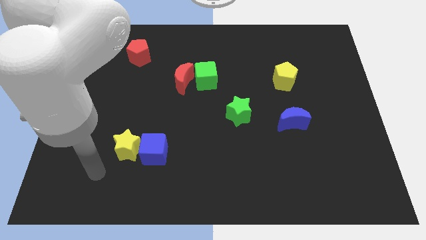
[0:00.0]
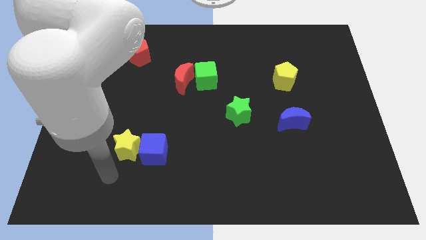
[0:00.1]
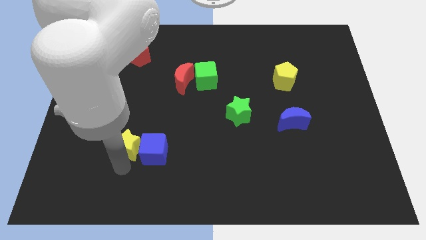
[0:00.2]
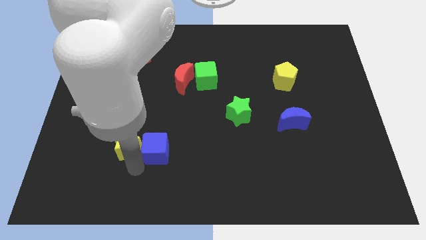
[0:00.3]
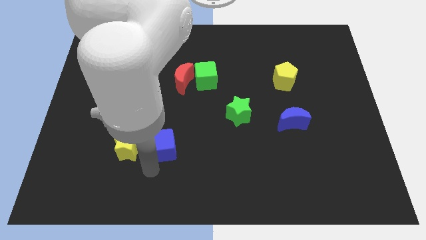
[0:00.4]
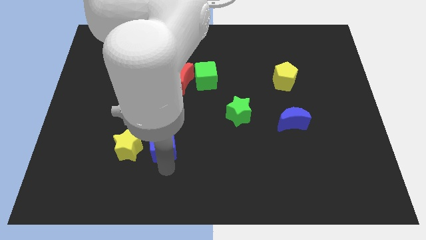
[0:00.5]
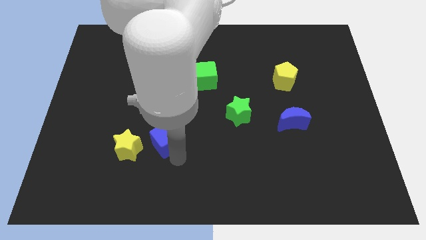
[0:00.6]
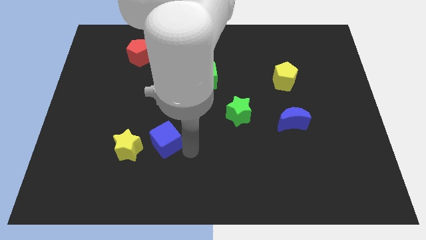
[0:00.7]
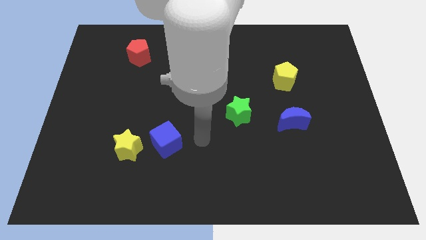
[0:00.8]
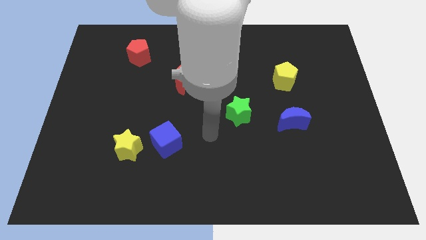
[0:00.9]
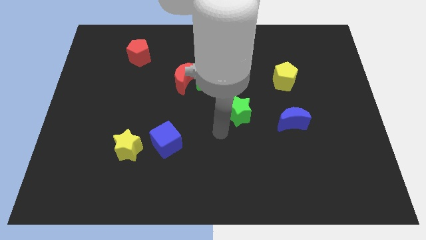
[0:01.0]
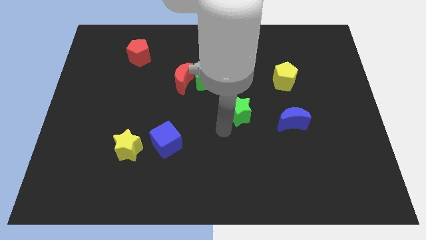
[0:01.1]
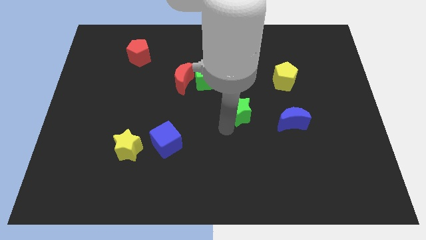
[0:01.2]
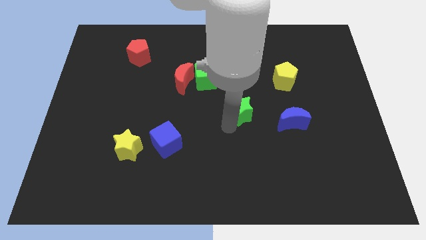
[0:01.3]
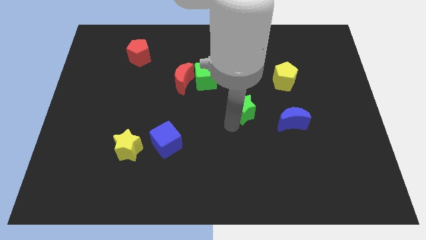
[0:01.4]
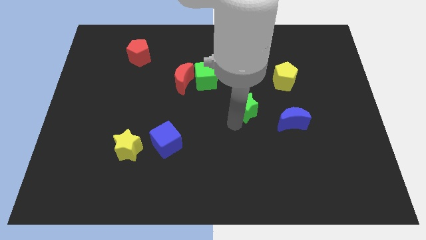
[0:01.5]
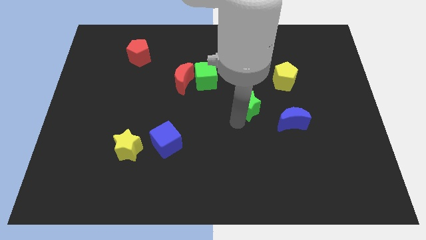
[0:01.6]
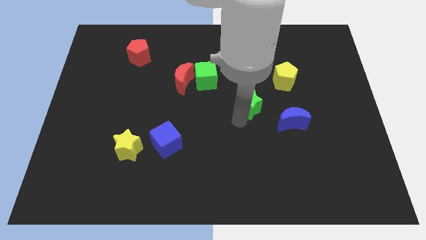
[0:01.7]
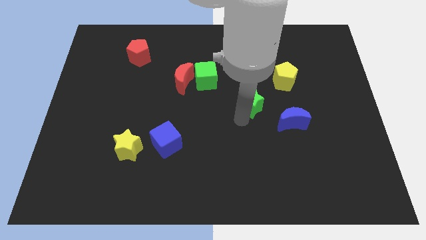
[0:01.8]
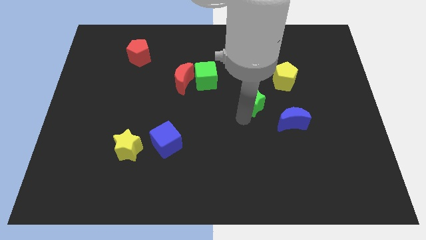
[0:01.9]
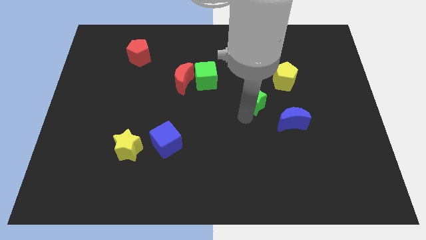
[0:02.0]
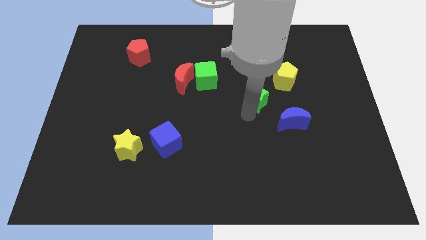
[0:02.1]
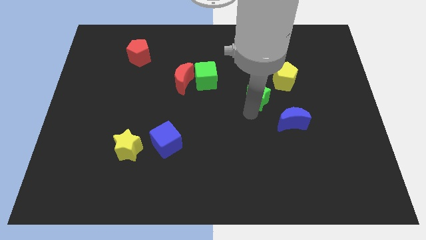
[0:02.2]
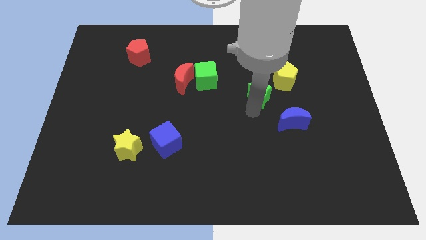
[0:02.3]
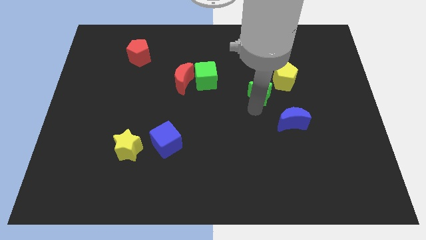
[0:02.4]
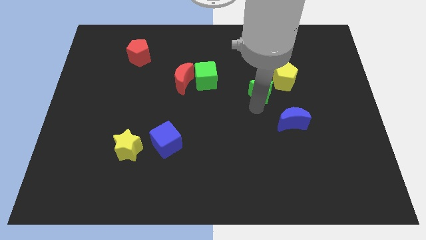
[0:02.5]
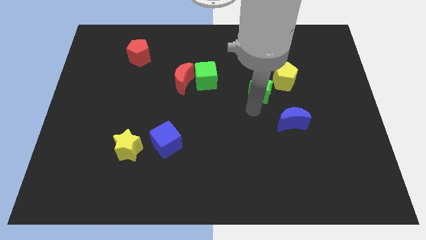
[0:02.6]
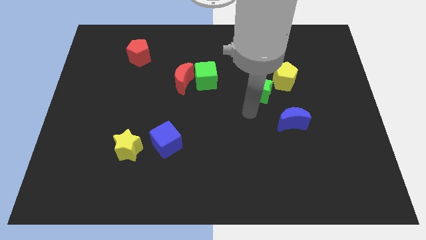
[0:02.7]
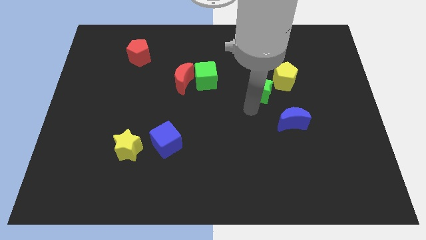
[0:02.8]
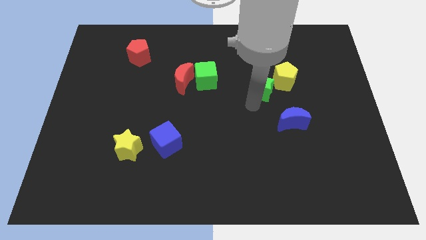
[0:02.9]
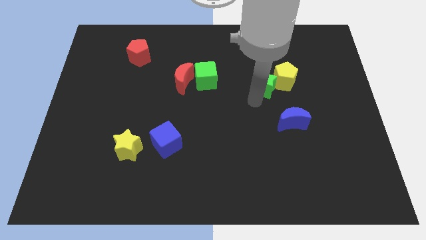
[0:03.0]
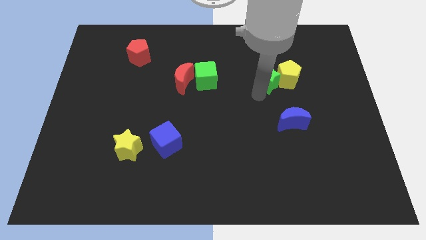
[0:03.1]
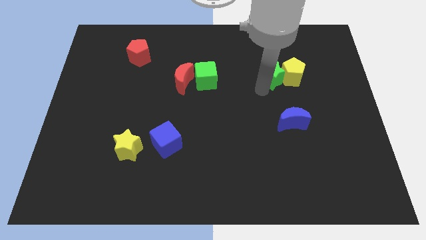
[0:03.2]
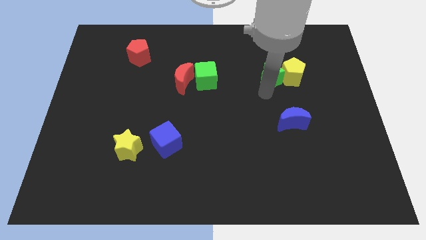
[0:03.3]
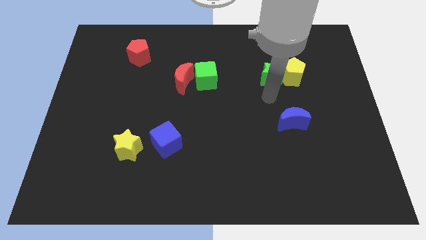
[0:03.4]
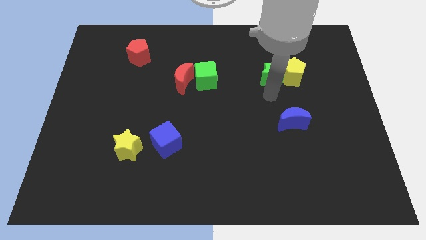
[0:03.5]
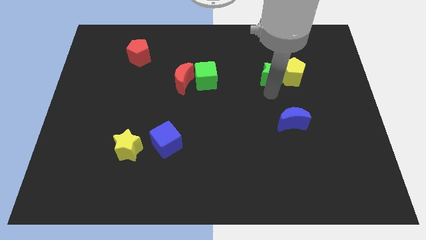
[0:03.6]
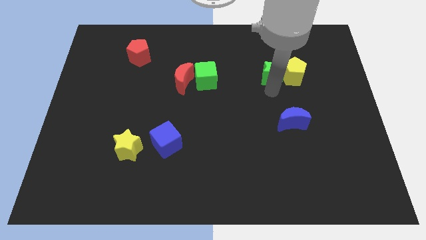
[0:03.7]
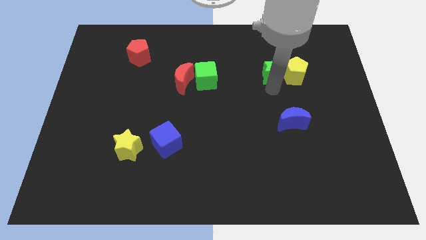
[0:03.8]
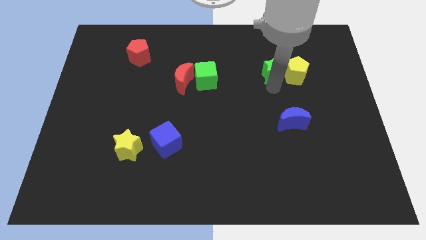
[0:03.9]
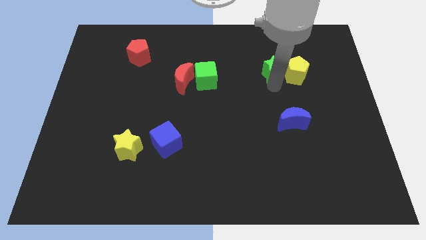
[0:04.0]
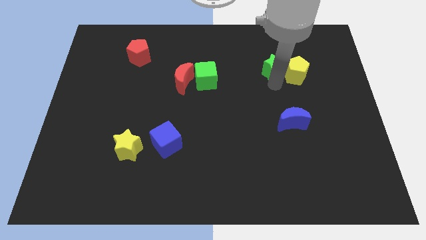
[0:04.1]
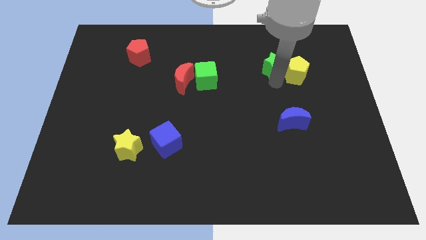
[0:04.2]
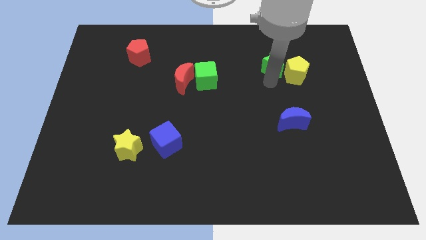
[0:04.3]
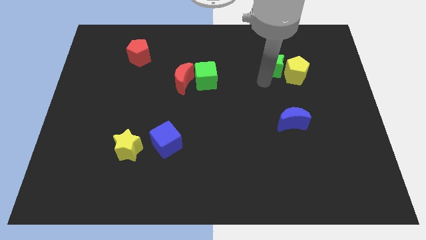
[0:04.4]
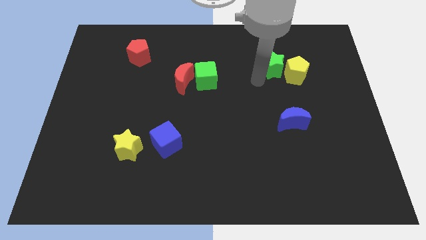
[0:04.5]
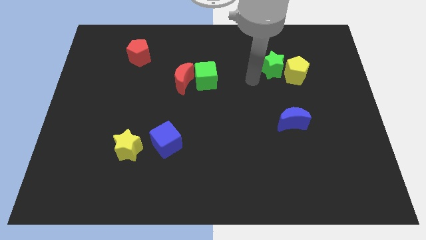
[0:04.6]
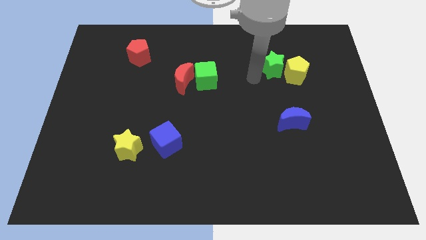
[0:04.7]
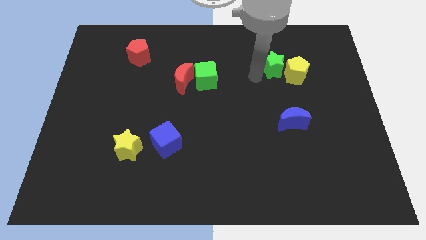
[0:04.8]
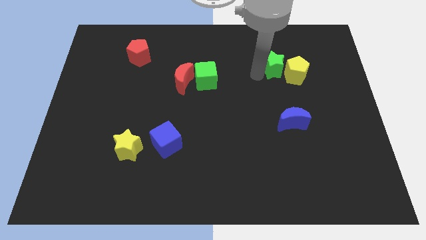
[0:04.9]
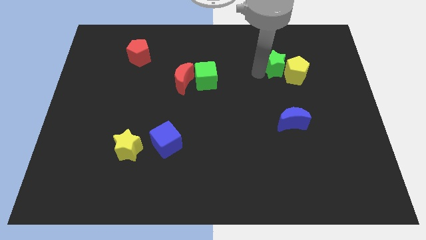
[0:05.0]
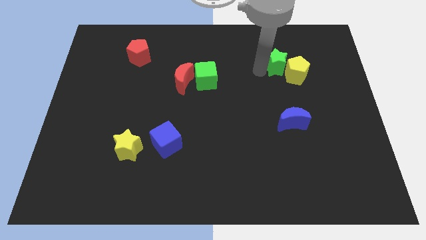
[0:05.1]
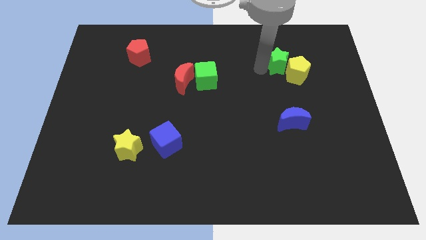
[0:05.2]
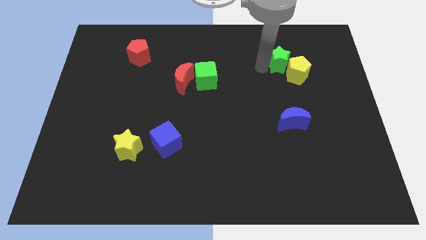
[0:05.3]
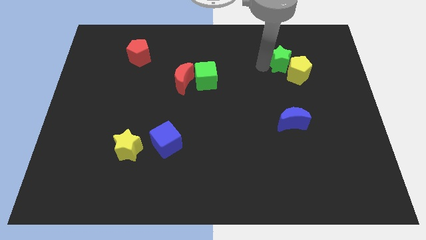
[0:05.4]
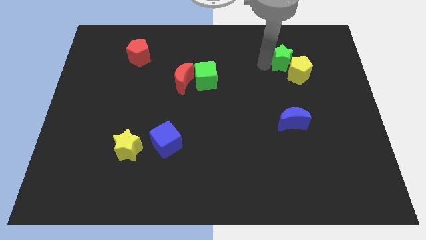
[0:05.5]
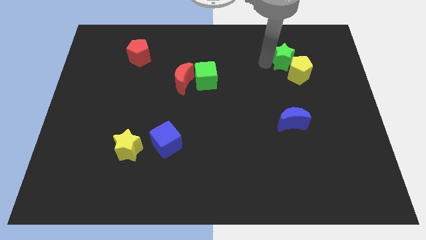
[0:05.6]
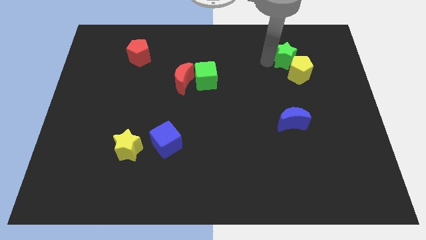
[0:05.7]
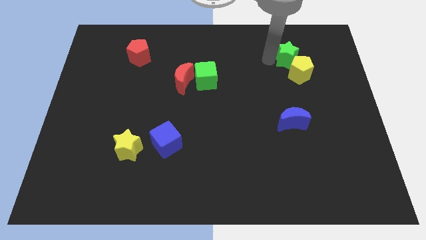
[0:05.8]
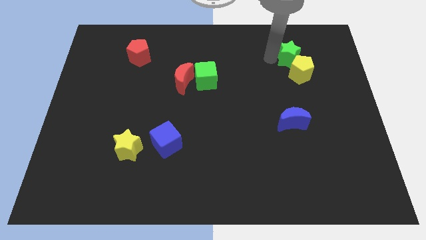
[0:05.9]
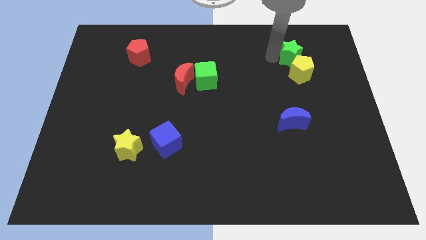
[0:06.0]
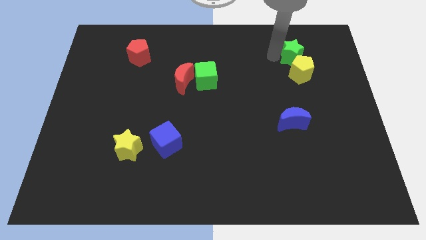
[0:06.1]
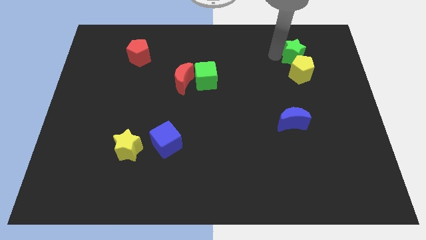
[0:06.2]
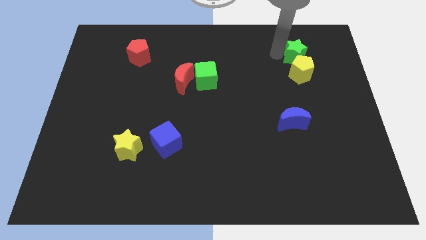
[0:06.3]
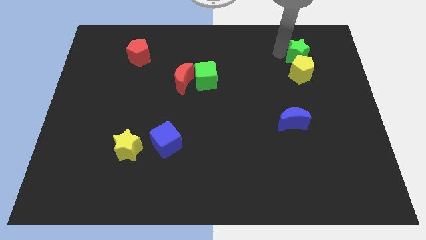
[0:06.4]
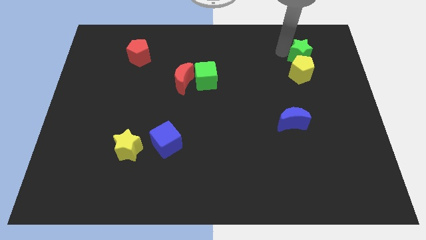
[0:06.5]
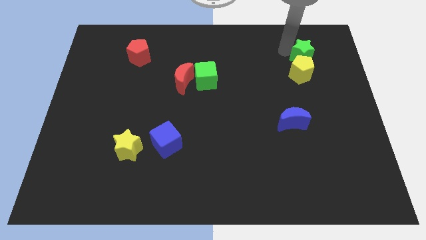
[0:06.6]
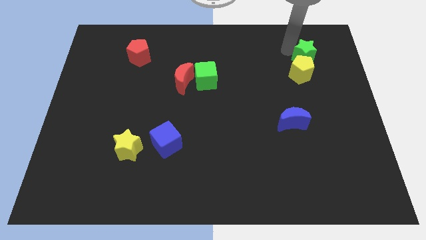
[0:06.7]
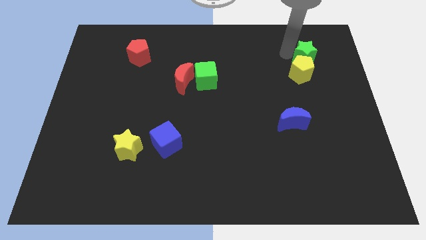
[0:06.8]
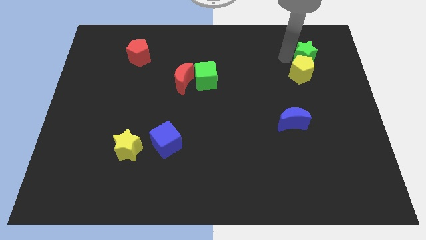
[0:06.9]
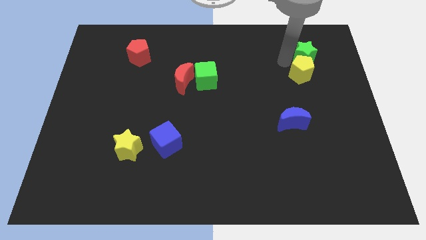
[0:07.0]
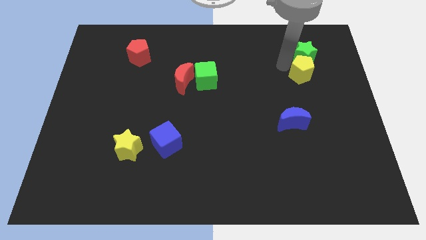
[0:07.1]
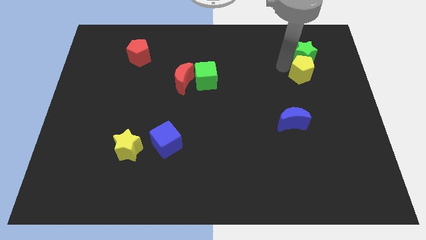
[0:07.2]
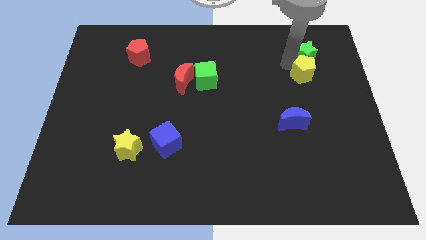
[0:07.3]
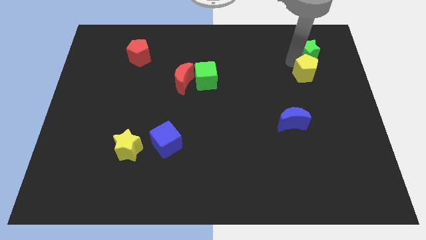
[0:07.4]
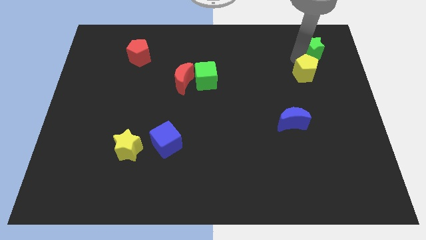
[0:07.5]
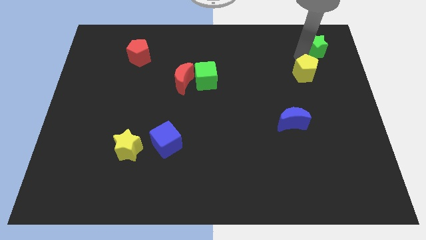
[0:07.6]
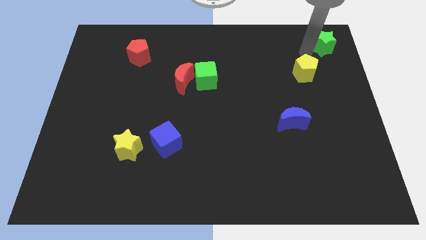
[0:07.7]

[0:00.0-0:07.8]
slide the green star to the top right

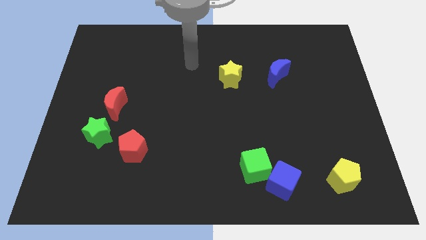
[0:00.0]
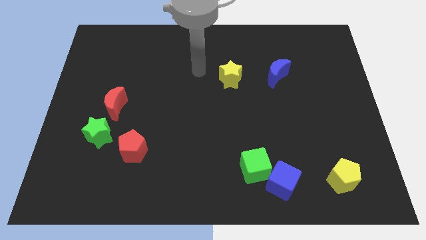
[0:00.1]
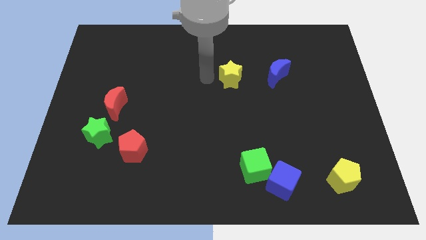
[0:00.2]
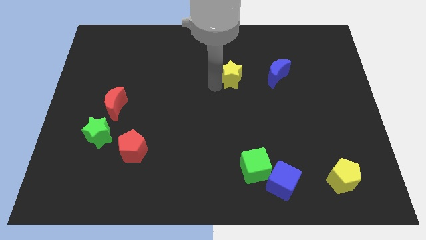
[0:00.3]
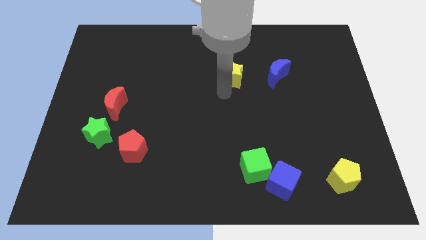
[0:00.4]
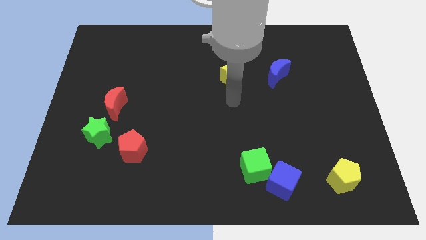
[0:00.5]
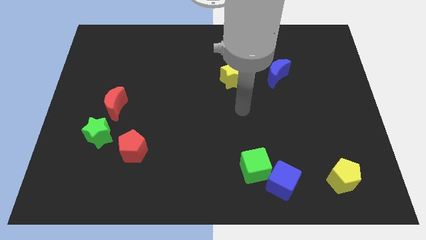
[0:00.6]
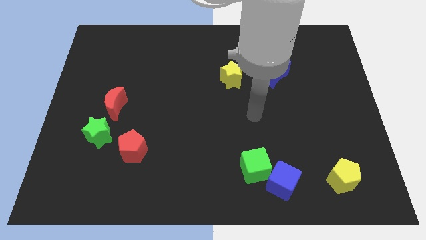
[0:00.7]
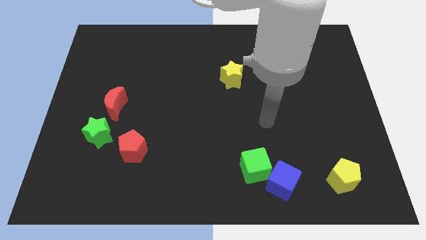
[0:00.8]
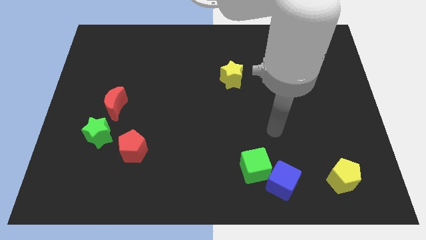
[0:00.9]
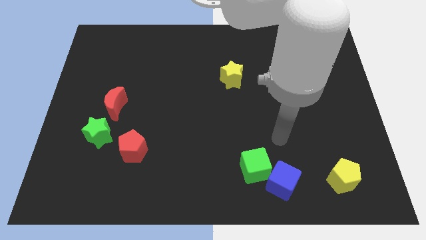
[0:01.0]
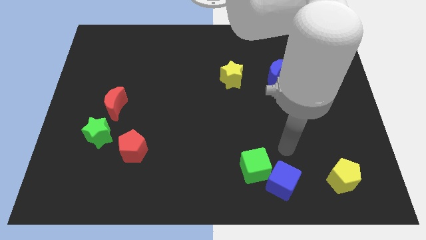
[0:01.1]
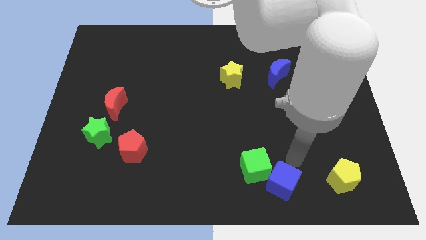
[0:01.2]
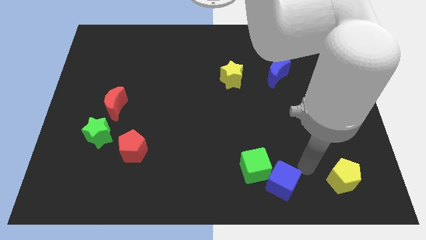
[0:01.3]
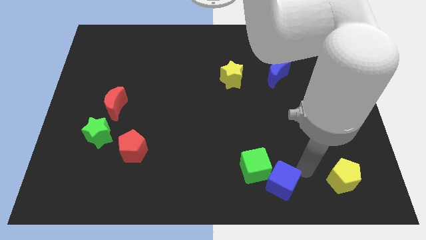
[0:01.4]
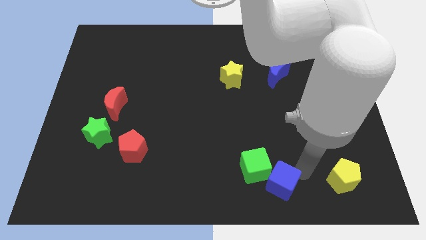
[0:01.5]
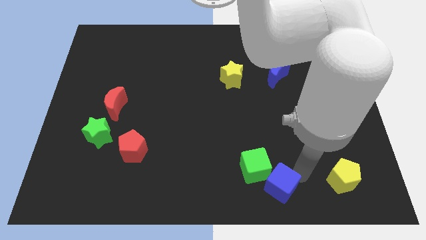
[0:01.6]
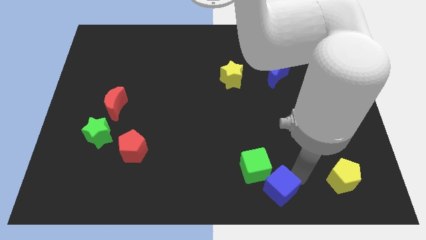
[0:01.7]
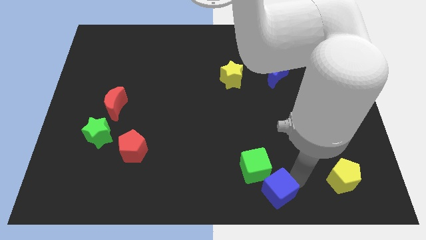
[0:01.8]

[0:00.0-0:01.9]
move the blue cube to the bottom
